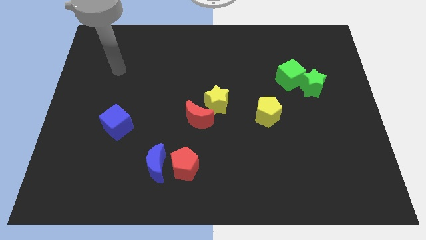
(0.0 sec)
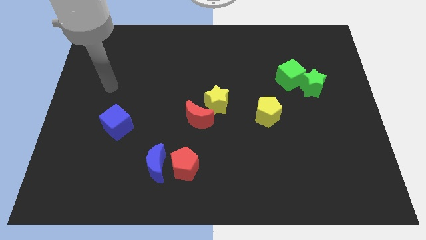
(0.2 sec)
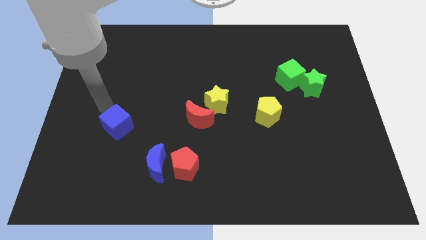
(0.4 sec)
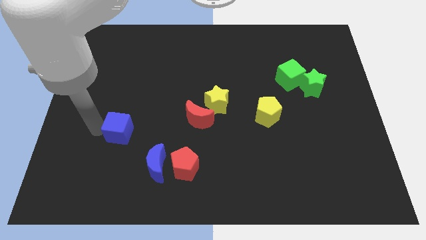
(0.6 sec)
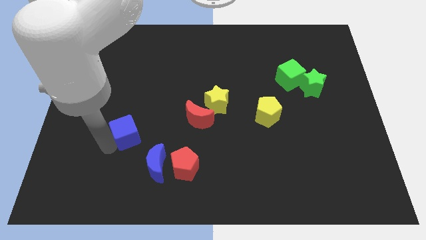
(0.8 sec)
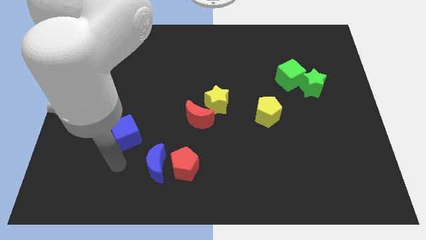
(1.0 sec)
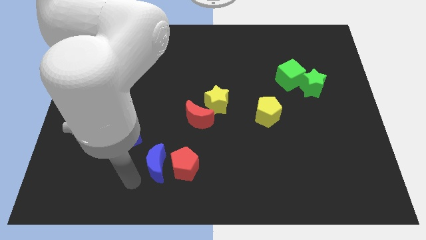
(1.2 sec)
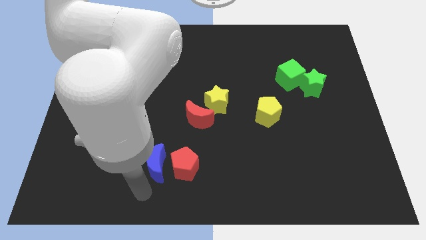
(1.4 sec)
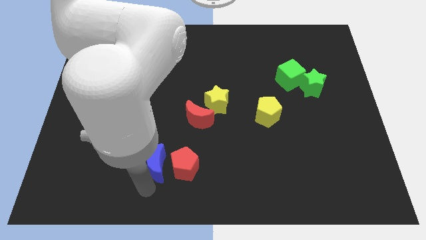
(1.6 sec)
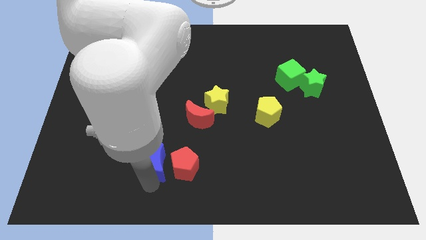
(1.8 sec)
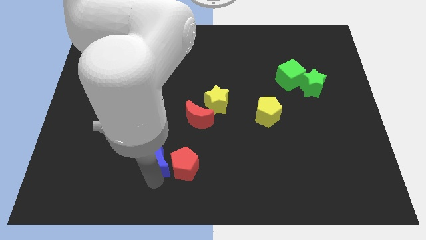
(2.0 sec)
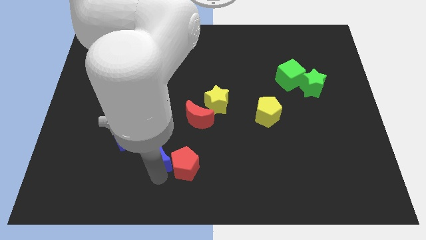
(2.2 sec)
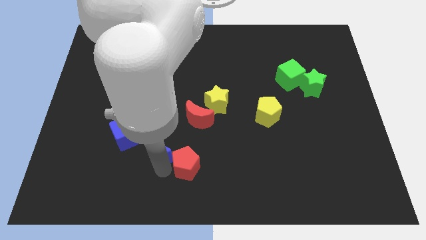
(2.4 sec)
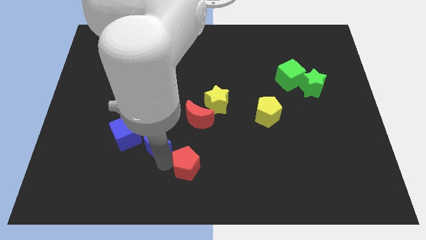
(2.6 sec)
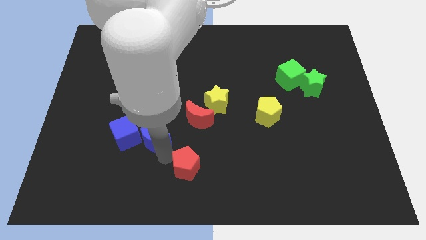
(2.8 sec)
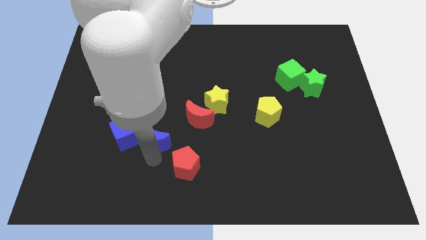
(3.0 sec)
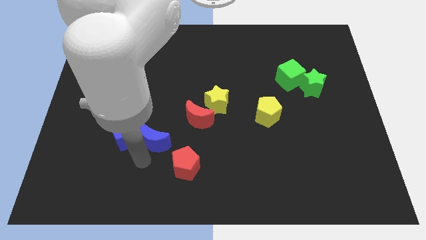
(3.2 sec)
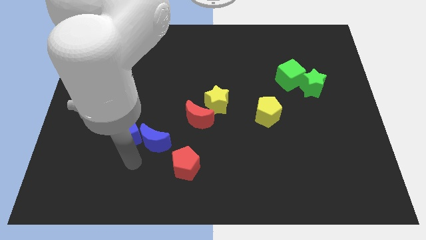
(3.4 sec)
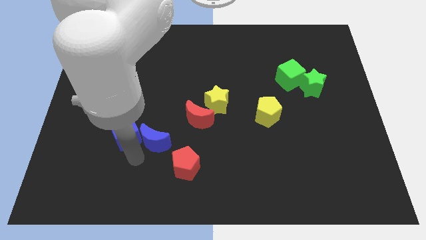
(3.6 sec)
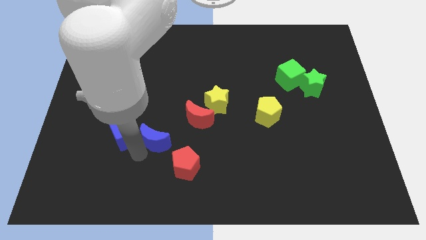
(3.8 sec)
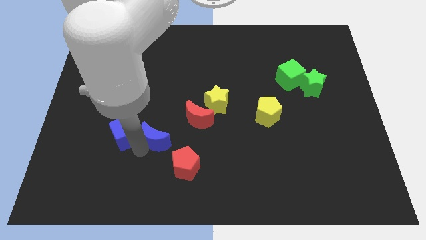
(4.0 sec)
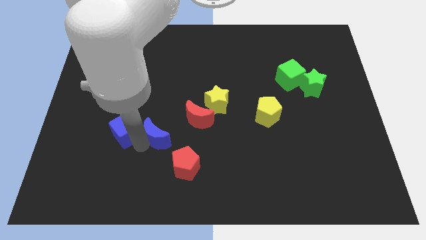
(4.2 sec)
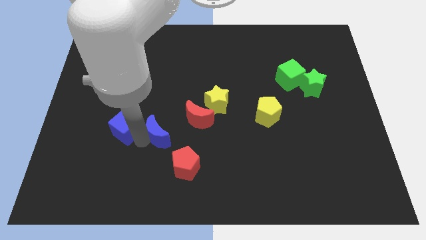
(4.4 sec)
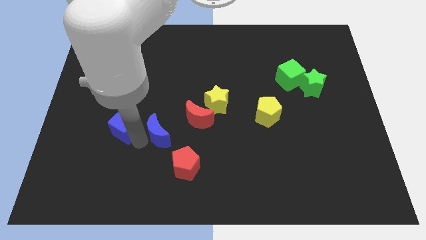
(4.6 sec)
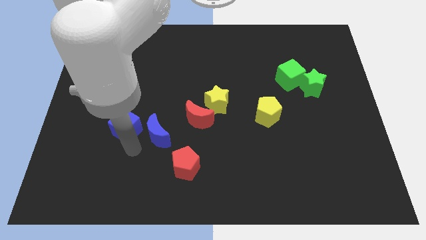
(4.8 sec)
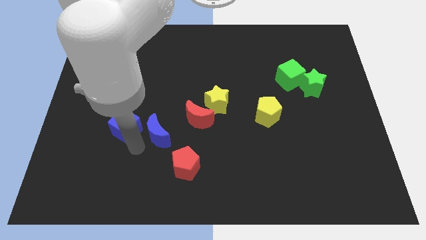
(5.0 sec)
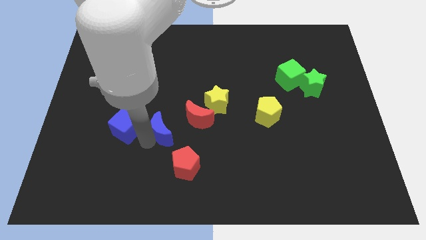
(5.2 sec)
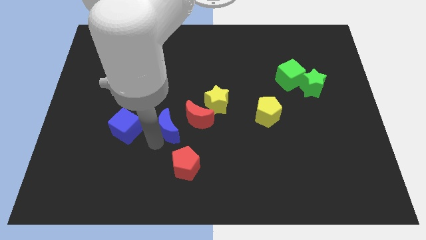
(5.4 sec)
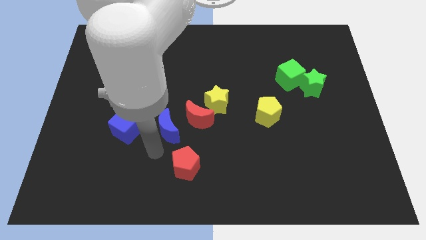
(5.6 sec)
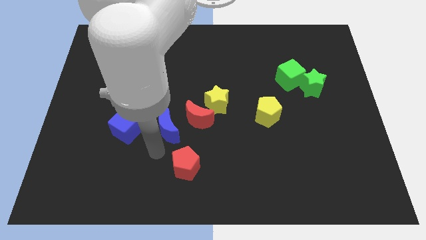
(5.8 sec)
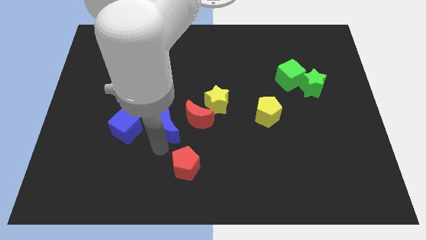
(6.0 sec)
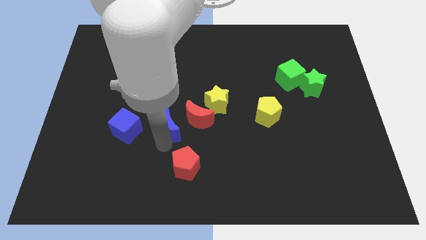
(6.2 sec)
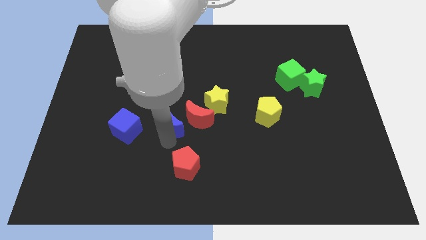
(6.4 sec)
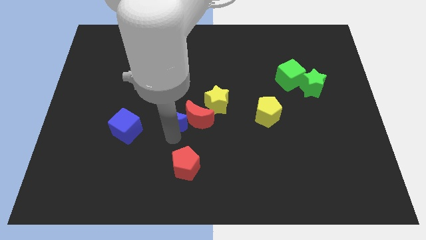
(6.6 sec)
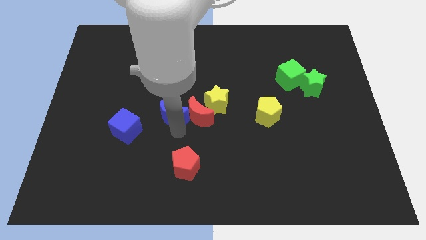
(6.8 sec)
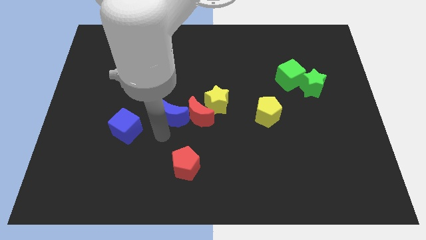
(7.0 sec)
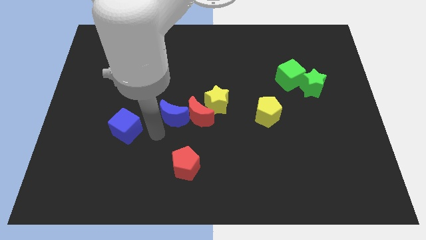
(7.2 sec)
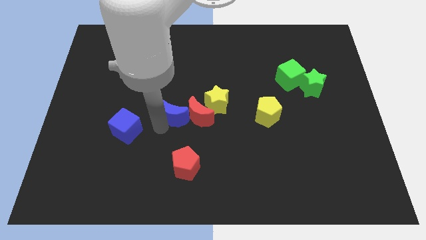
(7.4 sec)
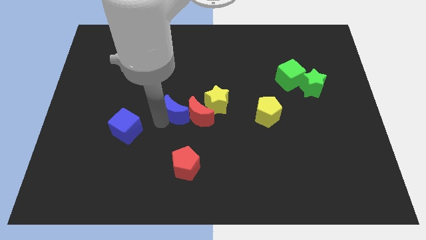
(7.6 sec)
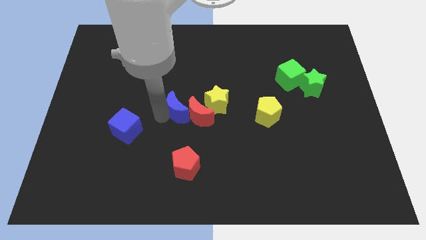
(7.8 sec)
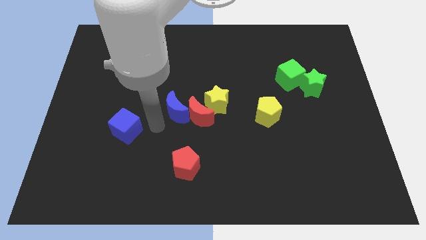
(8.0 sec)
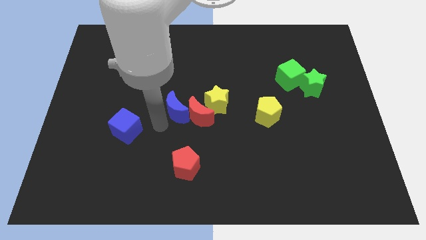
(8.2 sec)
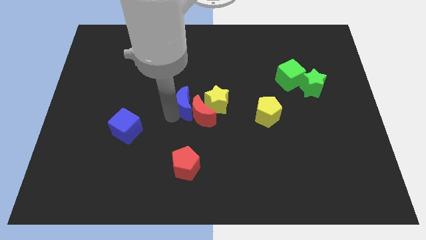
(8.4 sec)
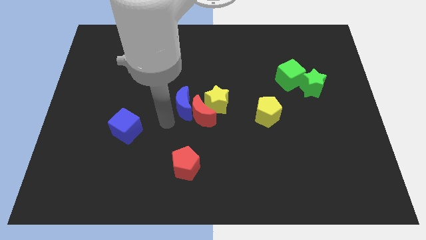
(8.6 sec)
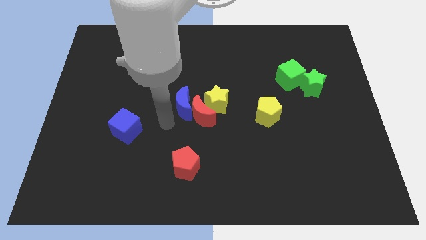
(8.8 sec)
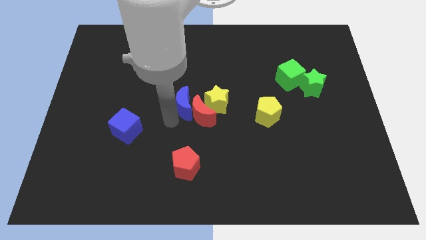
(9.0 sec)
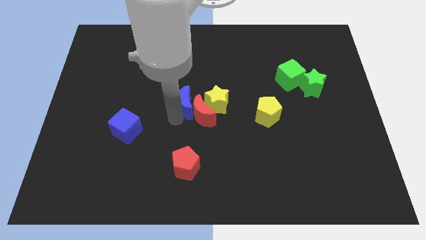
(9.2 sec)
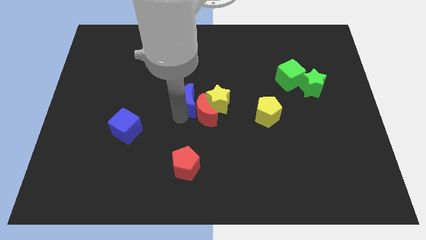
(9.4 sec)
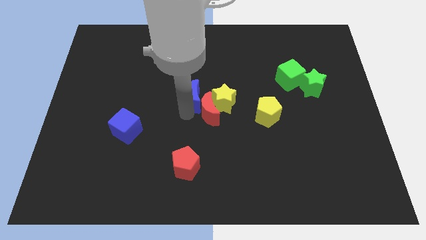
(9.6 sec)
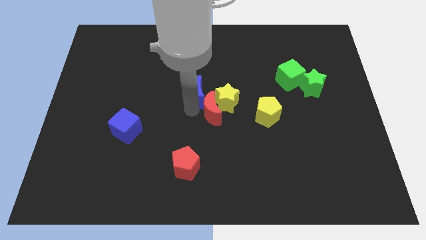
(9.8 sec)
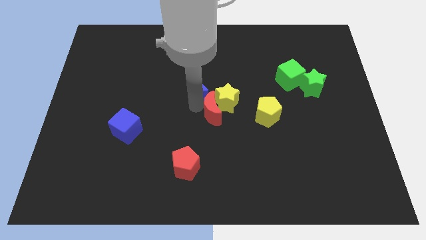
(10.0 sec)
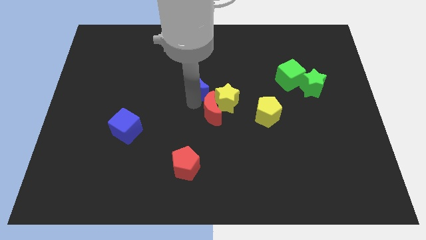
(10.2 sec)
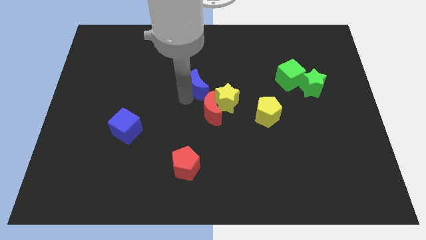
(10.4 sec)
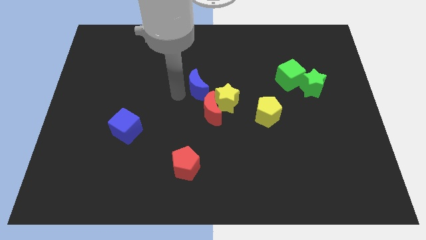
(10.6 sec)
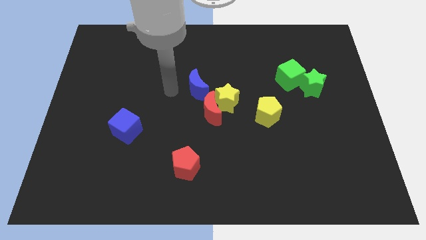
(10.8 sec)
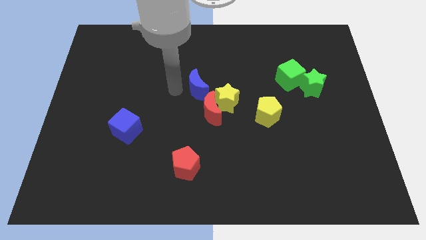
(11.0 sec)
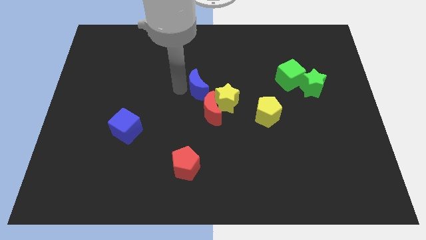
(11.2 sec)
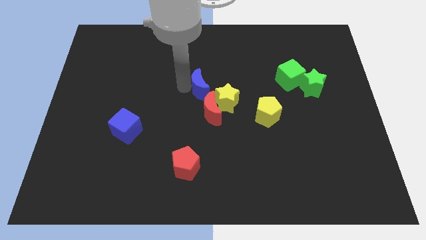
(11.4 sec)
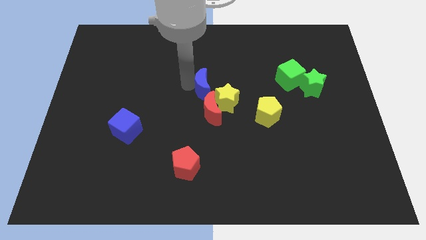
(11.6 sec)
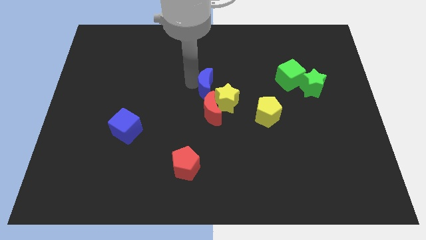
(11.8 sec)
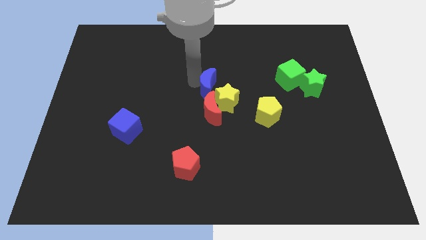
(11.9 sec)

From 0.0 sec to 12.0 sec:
push the blue moon upwards and to the right

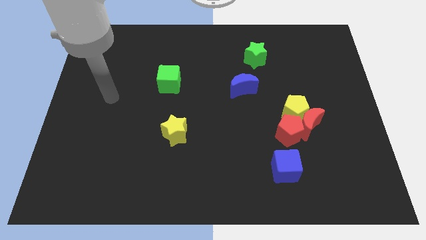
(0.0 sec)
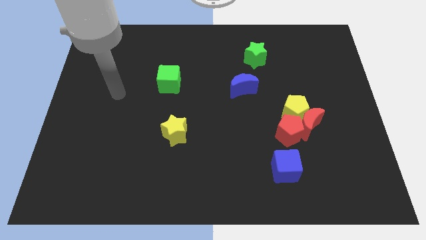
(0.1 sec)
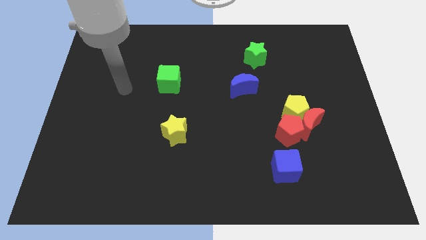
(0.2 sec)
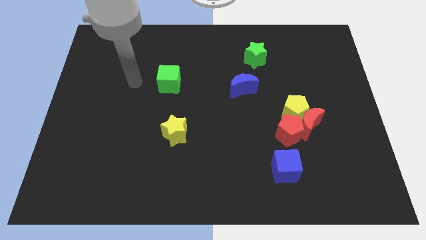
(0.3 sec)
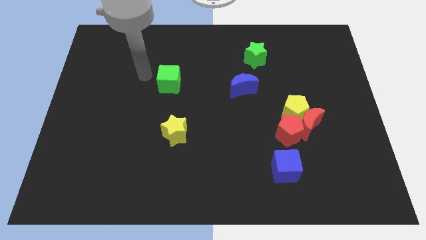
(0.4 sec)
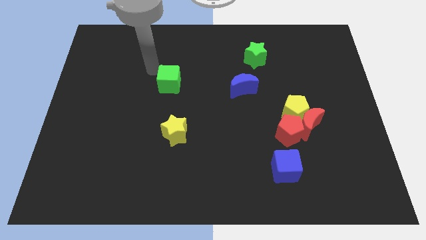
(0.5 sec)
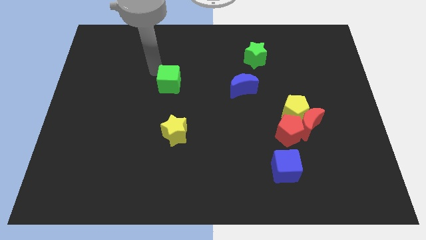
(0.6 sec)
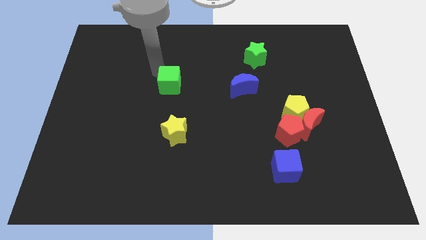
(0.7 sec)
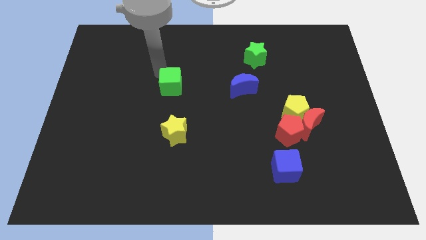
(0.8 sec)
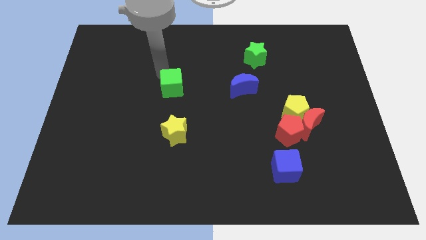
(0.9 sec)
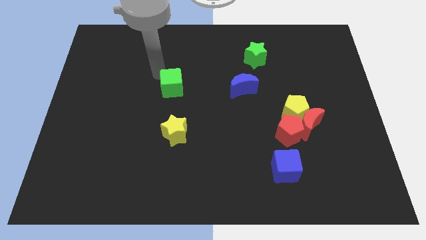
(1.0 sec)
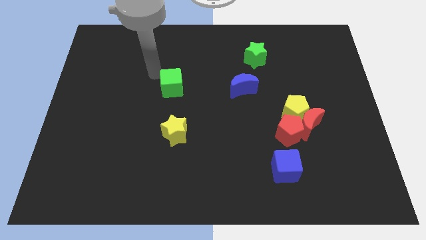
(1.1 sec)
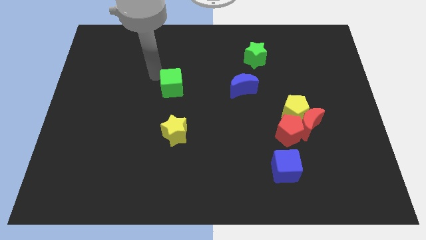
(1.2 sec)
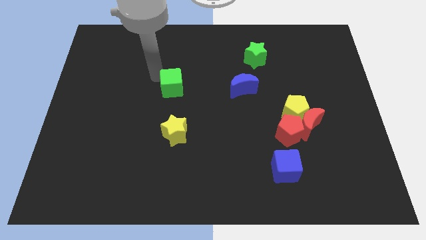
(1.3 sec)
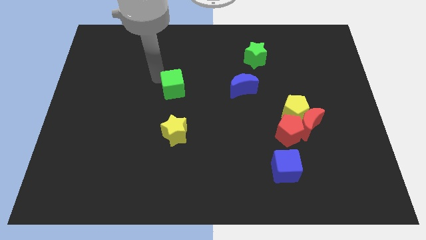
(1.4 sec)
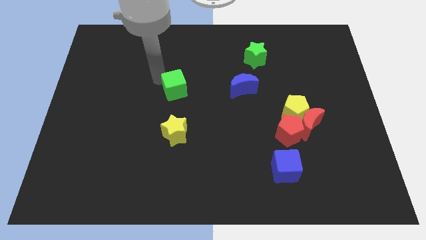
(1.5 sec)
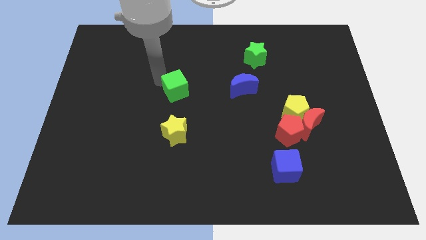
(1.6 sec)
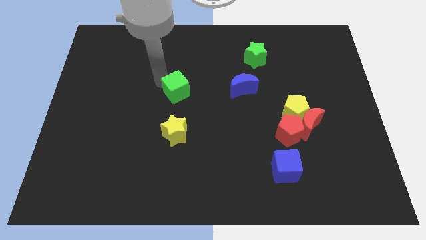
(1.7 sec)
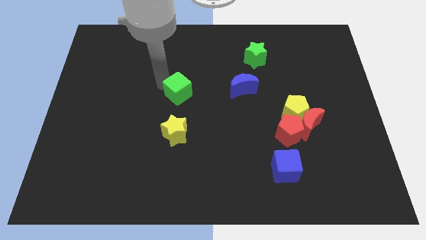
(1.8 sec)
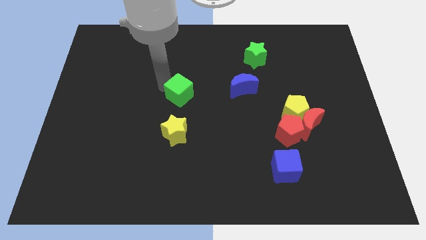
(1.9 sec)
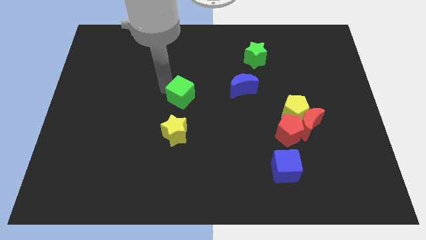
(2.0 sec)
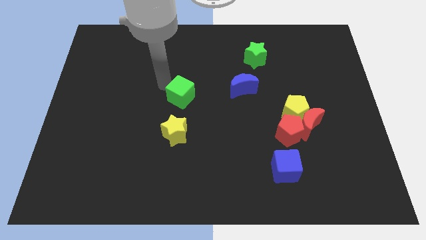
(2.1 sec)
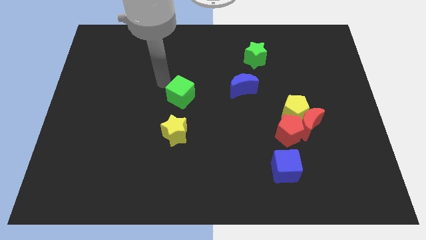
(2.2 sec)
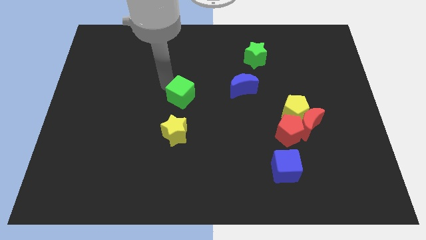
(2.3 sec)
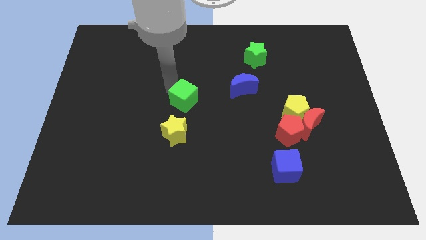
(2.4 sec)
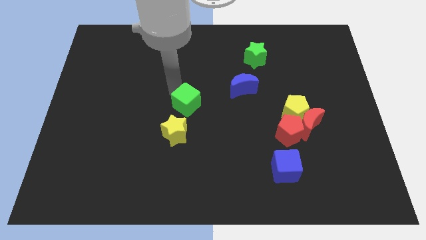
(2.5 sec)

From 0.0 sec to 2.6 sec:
move the green cube diagonally down and to the right a little
